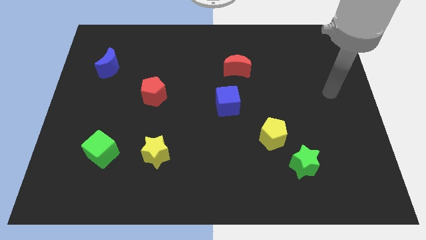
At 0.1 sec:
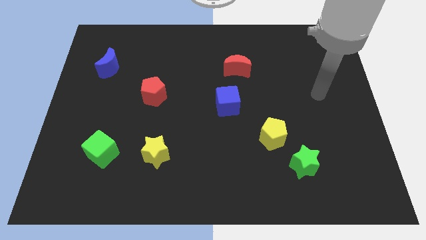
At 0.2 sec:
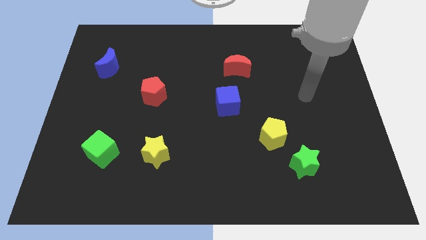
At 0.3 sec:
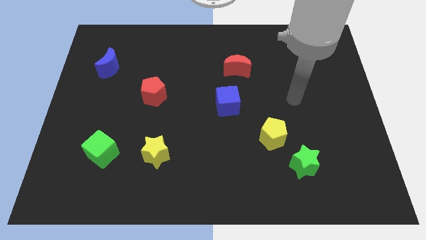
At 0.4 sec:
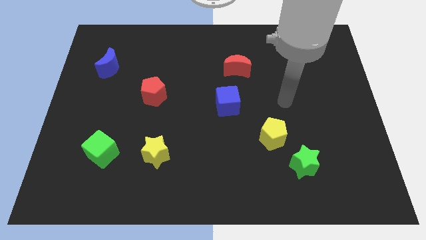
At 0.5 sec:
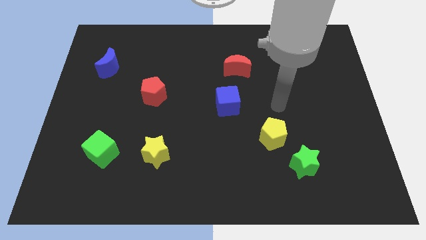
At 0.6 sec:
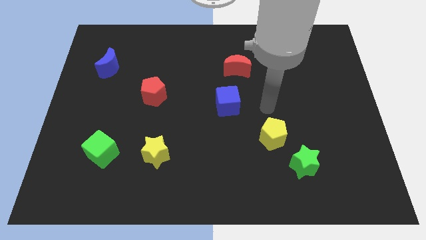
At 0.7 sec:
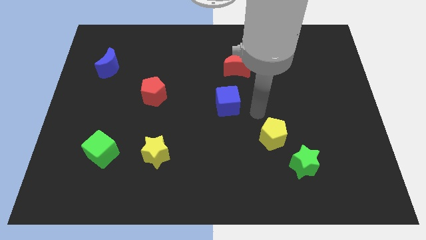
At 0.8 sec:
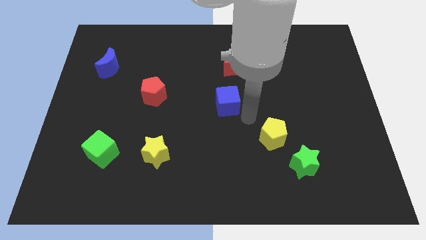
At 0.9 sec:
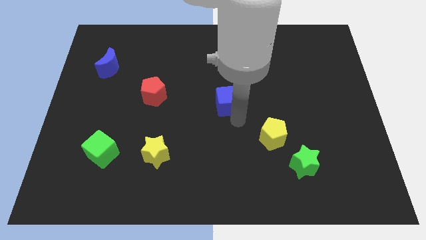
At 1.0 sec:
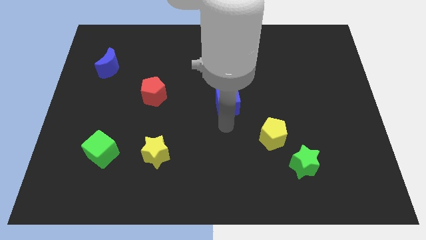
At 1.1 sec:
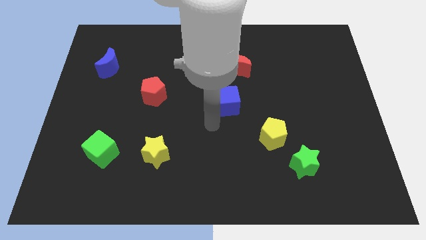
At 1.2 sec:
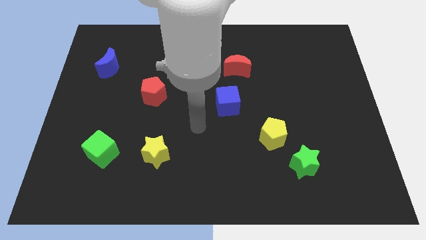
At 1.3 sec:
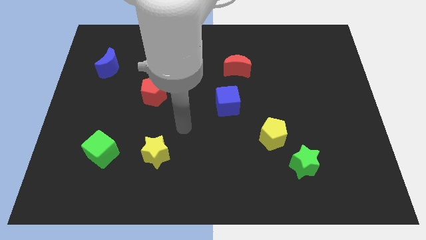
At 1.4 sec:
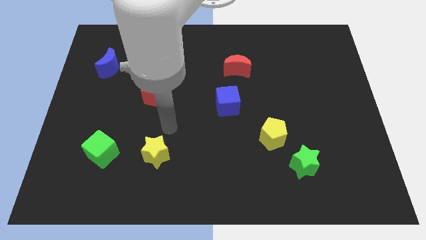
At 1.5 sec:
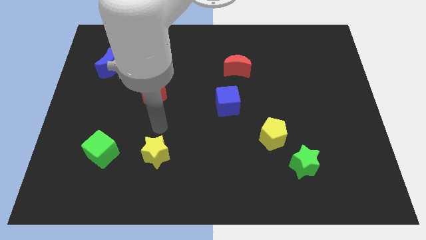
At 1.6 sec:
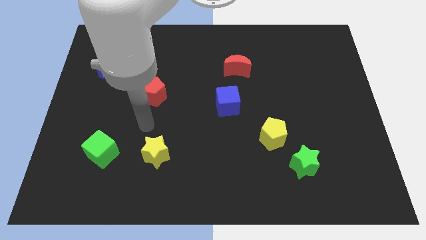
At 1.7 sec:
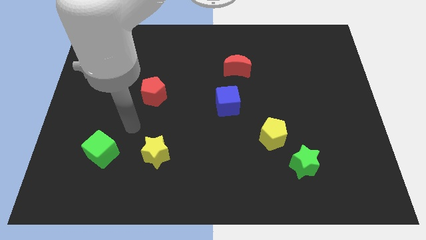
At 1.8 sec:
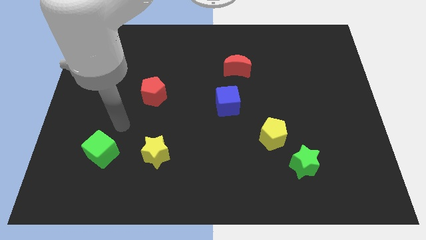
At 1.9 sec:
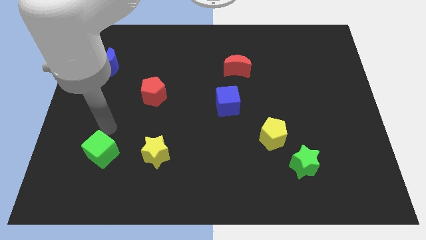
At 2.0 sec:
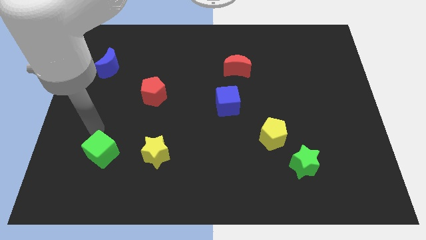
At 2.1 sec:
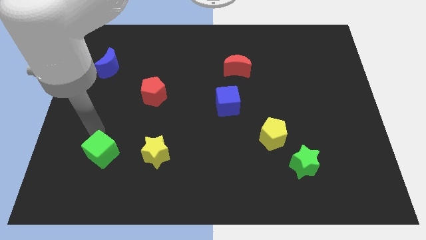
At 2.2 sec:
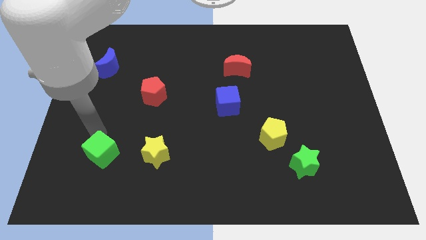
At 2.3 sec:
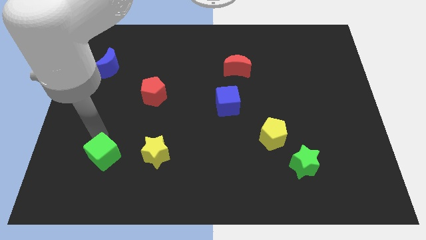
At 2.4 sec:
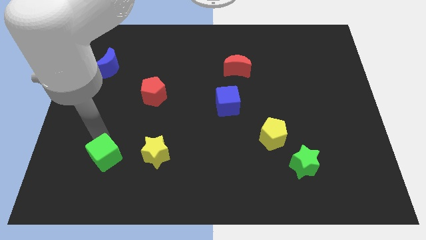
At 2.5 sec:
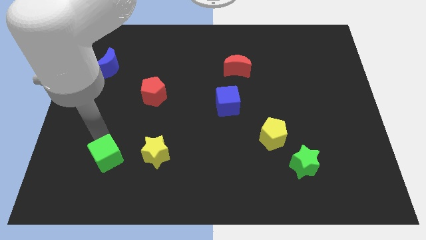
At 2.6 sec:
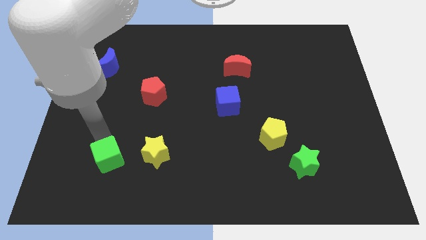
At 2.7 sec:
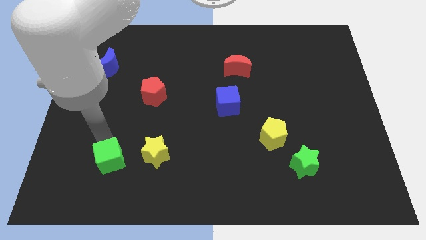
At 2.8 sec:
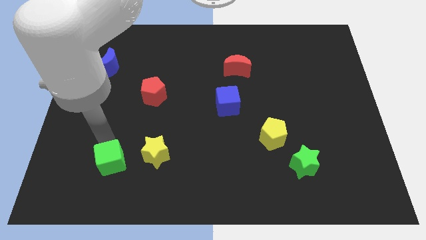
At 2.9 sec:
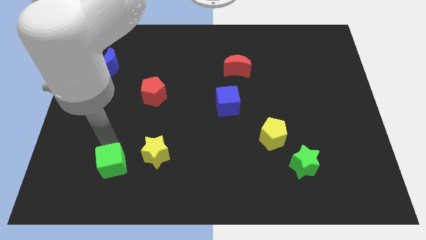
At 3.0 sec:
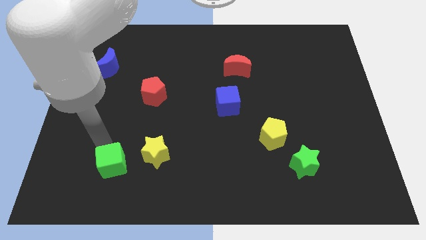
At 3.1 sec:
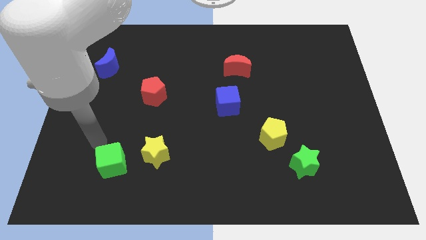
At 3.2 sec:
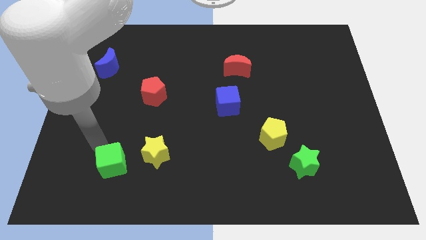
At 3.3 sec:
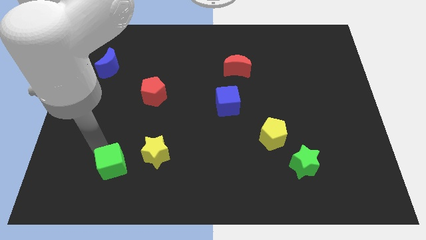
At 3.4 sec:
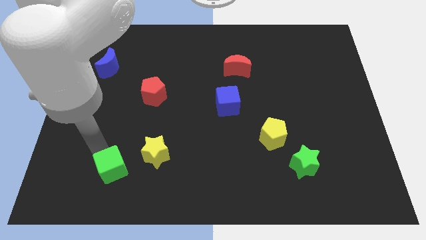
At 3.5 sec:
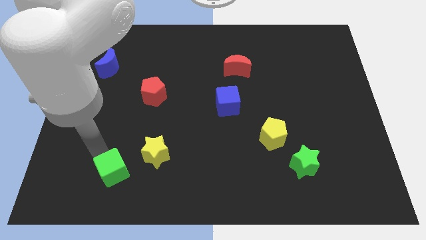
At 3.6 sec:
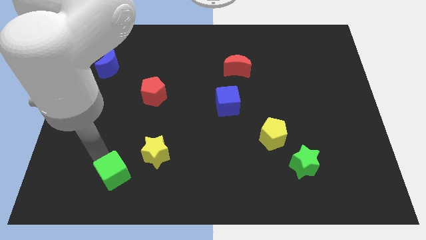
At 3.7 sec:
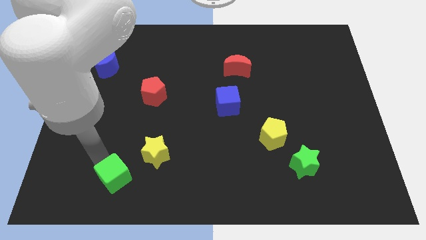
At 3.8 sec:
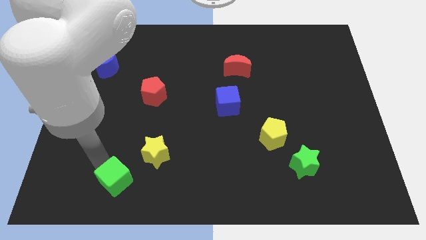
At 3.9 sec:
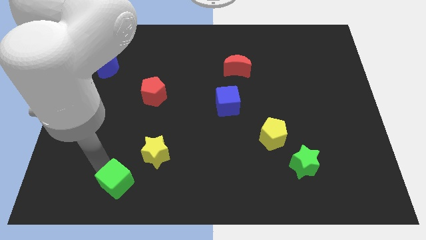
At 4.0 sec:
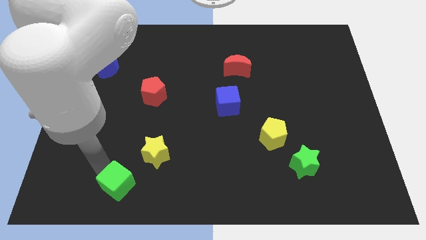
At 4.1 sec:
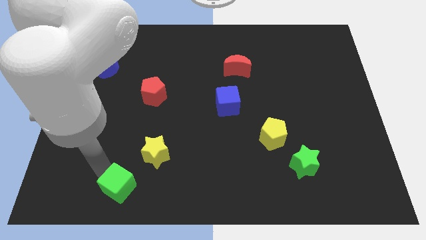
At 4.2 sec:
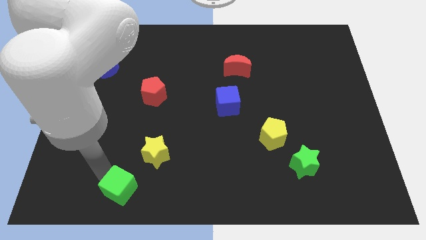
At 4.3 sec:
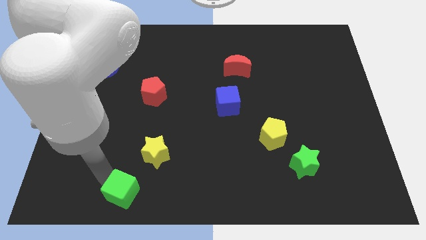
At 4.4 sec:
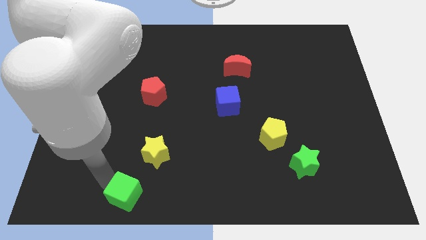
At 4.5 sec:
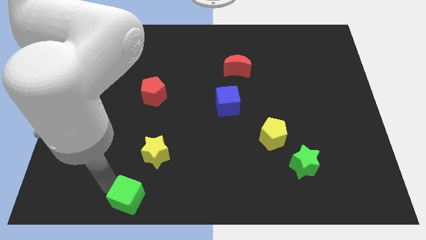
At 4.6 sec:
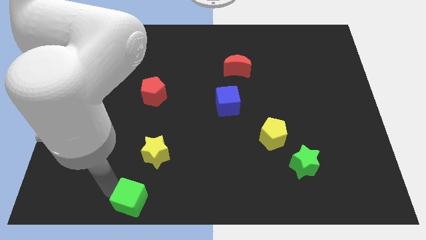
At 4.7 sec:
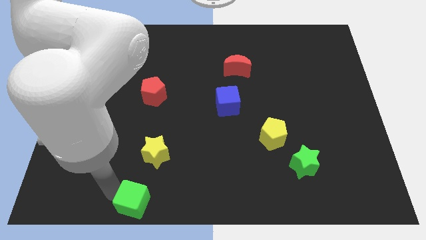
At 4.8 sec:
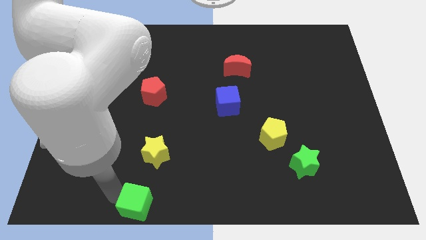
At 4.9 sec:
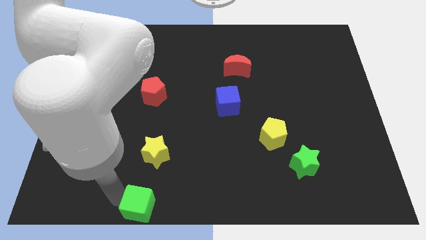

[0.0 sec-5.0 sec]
put the green cube to the bottom side

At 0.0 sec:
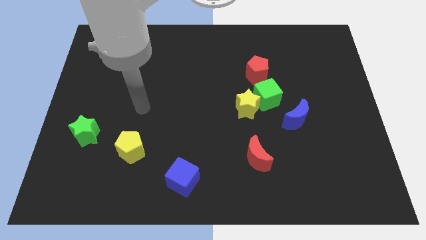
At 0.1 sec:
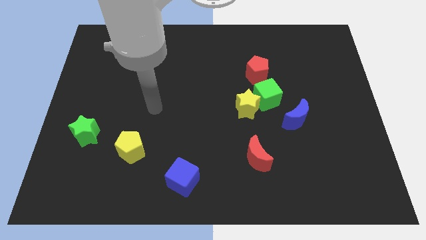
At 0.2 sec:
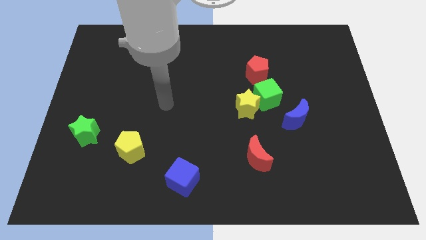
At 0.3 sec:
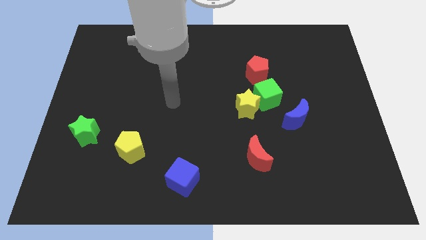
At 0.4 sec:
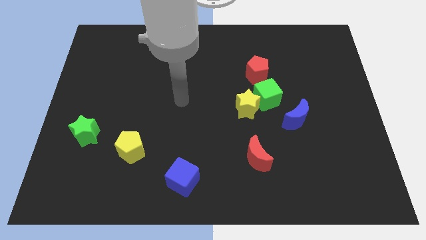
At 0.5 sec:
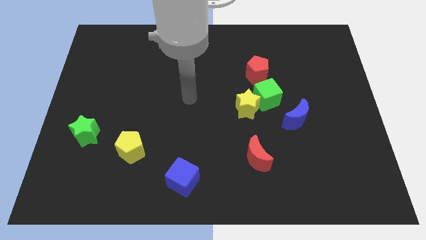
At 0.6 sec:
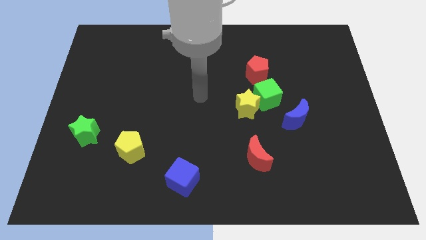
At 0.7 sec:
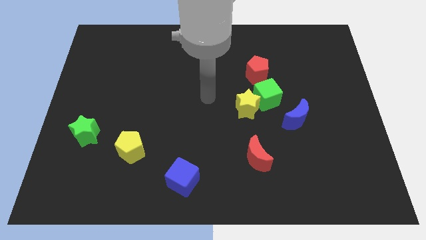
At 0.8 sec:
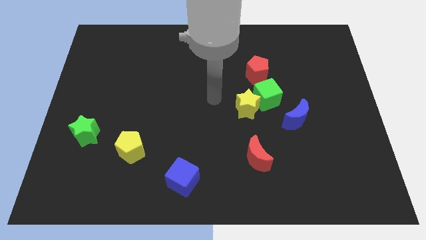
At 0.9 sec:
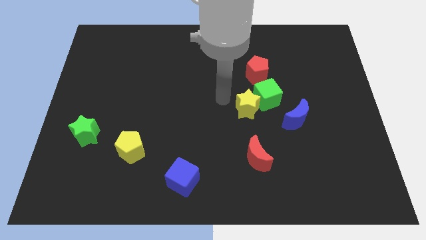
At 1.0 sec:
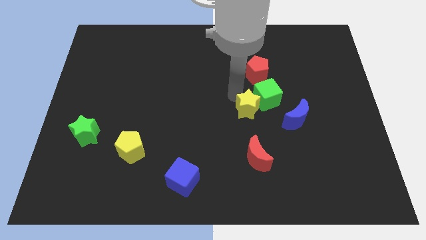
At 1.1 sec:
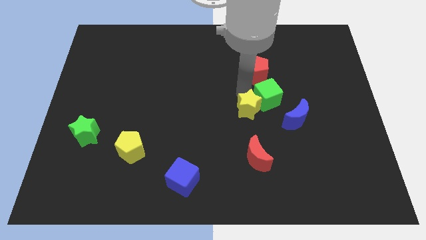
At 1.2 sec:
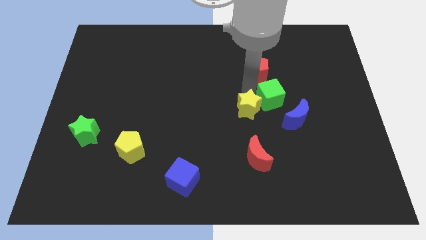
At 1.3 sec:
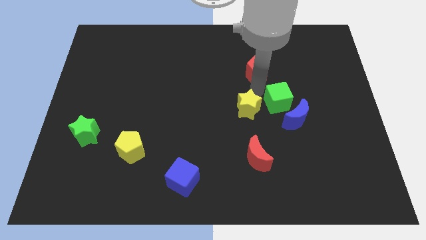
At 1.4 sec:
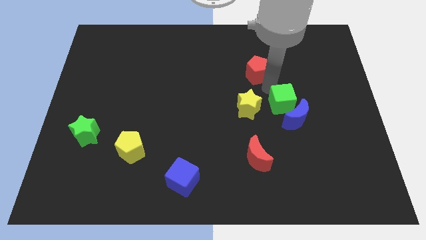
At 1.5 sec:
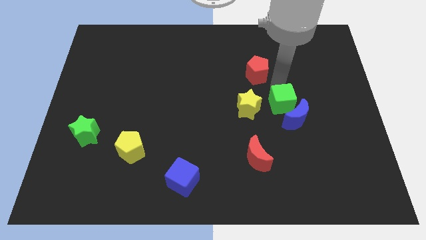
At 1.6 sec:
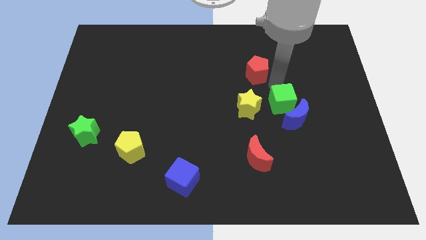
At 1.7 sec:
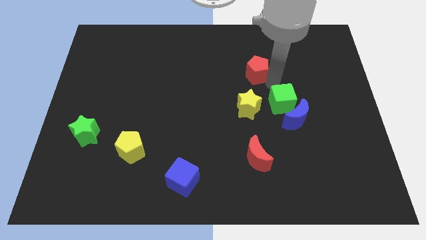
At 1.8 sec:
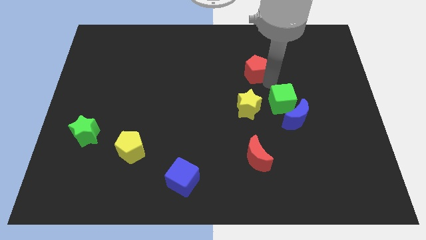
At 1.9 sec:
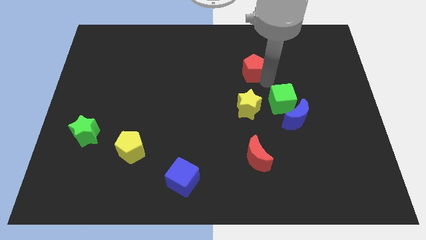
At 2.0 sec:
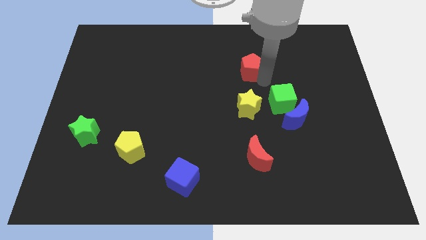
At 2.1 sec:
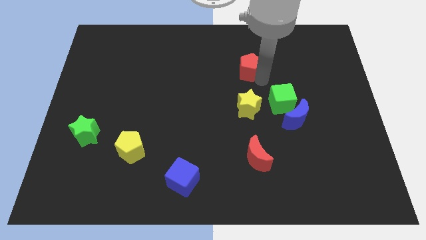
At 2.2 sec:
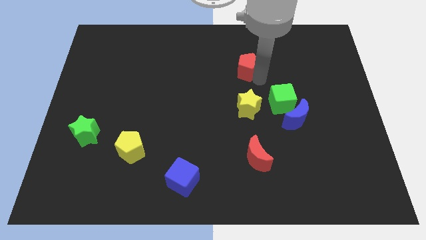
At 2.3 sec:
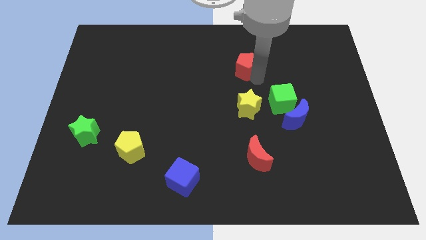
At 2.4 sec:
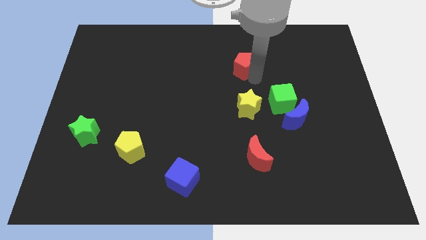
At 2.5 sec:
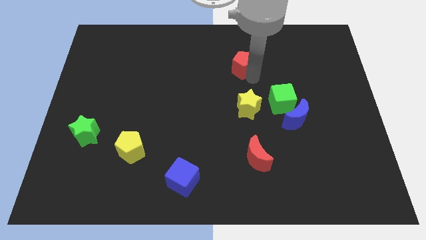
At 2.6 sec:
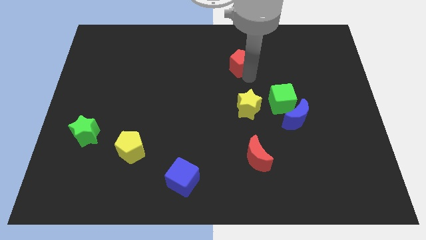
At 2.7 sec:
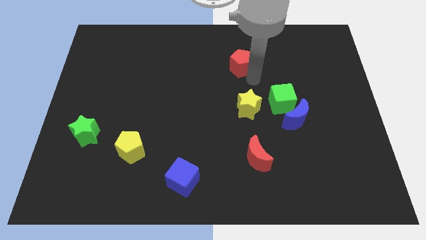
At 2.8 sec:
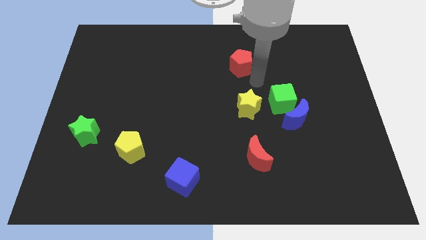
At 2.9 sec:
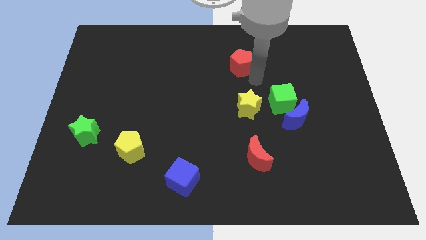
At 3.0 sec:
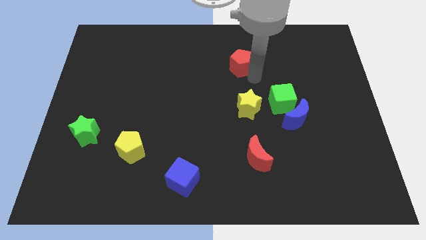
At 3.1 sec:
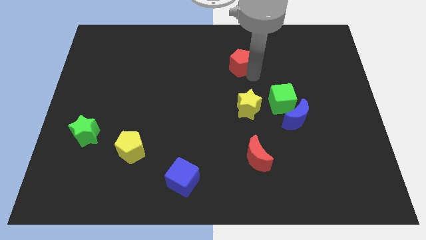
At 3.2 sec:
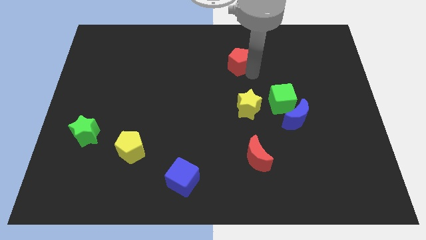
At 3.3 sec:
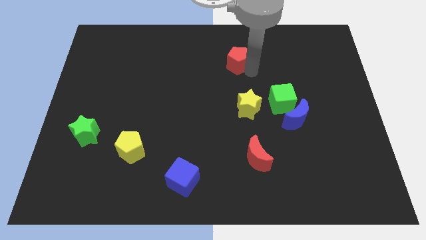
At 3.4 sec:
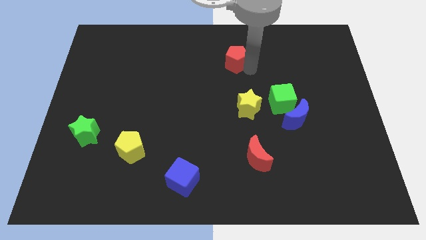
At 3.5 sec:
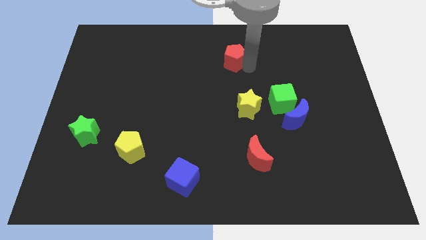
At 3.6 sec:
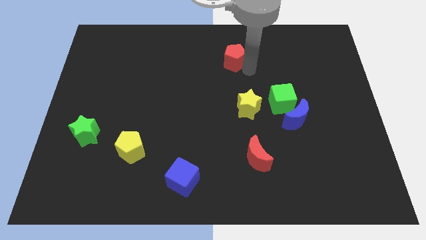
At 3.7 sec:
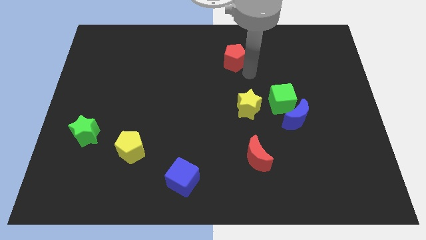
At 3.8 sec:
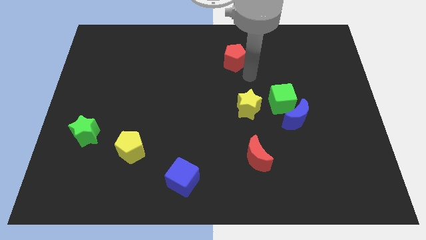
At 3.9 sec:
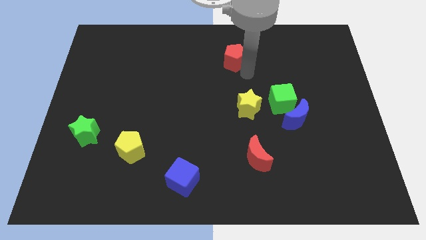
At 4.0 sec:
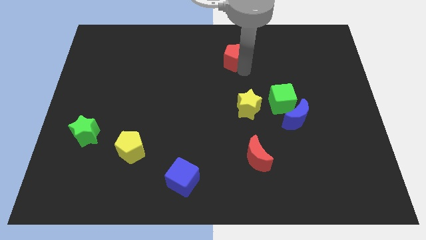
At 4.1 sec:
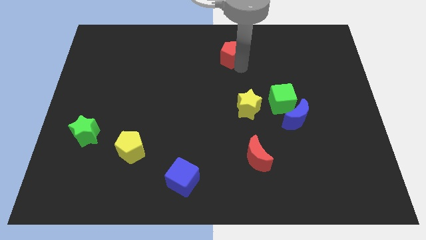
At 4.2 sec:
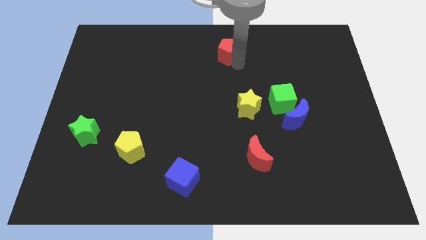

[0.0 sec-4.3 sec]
push the red pentagon to the towards your base
